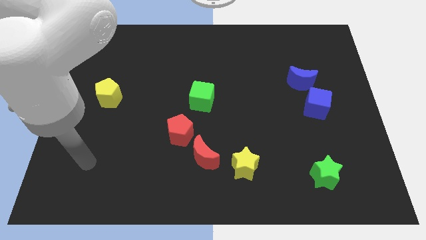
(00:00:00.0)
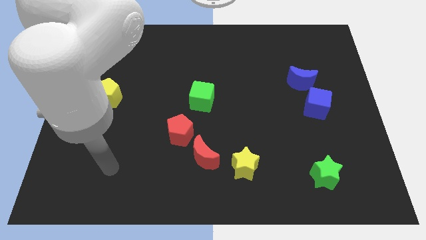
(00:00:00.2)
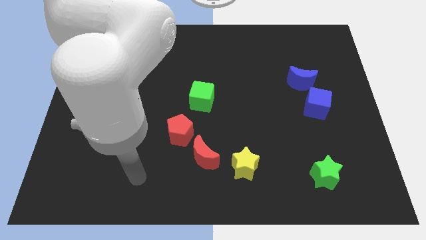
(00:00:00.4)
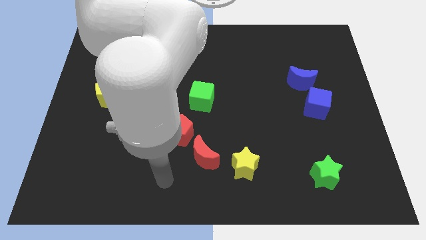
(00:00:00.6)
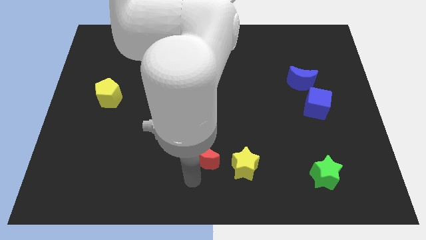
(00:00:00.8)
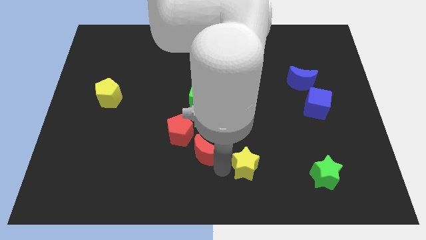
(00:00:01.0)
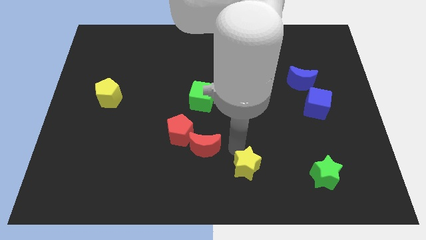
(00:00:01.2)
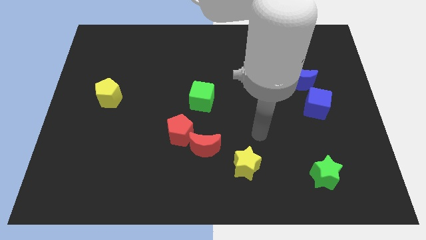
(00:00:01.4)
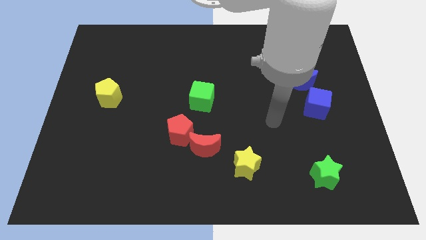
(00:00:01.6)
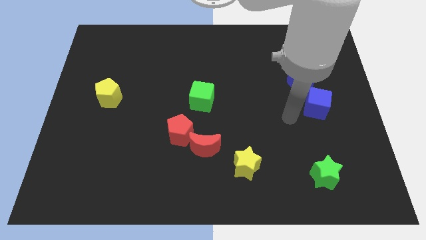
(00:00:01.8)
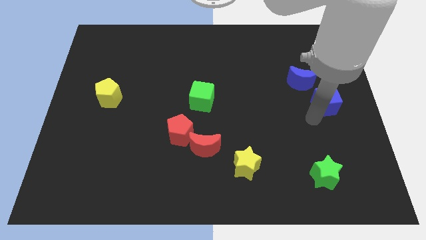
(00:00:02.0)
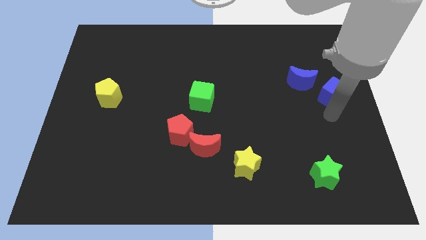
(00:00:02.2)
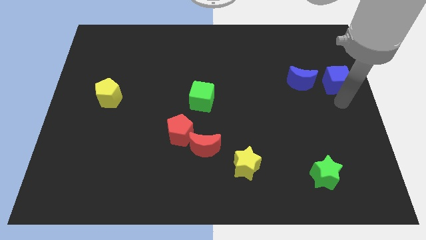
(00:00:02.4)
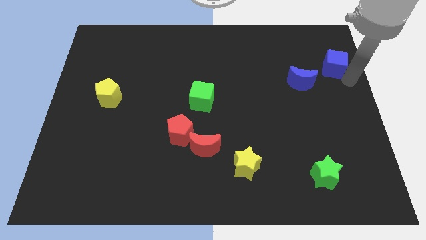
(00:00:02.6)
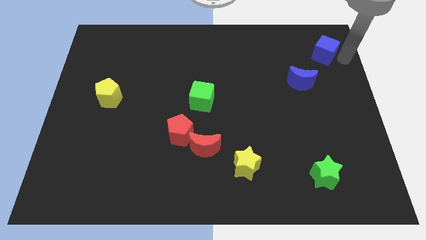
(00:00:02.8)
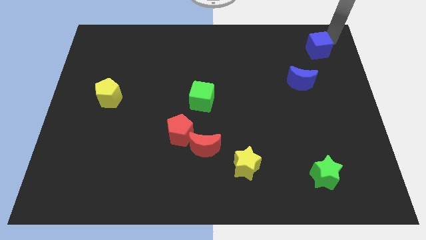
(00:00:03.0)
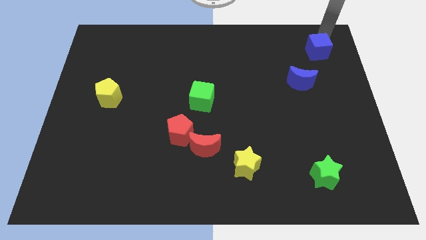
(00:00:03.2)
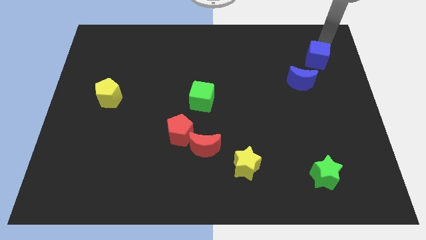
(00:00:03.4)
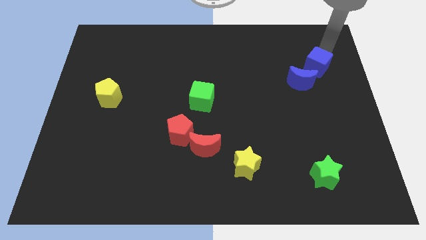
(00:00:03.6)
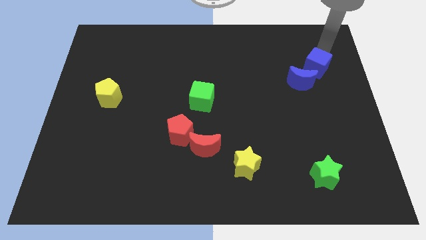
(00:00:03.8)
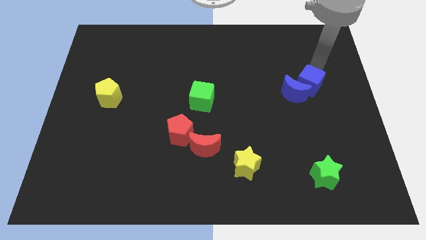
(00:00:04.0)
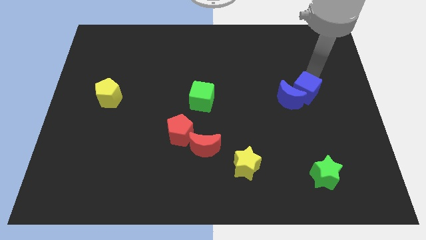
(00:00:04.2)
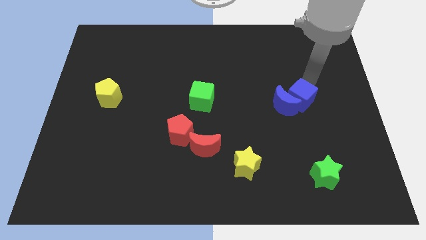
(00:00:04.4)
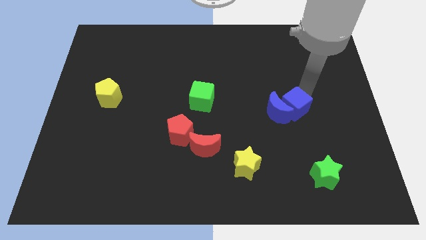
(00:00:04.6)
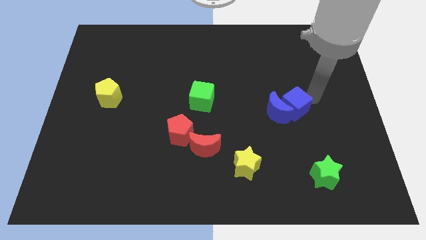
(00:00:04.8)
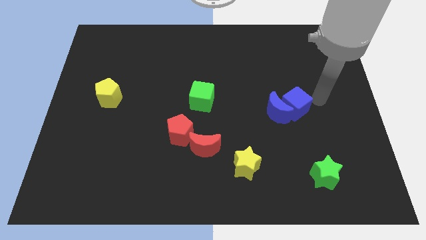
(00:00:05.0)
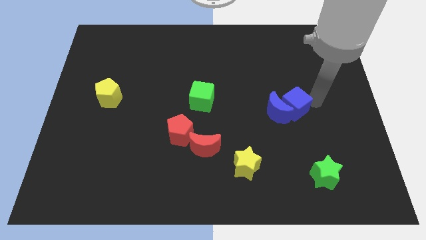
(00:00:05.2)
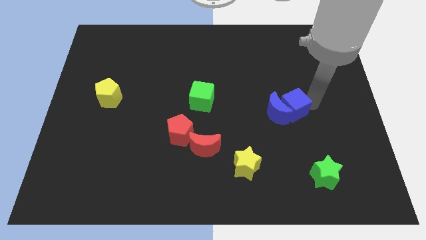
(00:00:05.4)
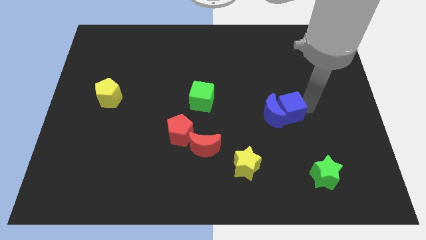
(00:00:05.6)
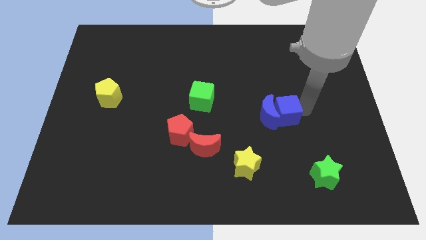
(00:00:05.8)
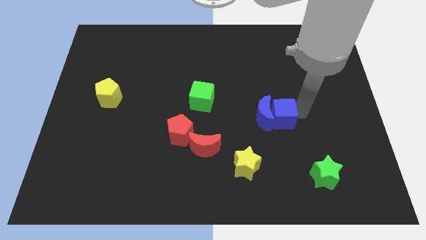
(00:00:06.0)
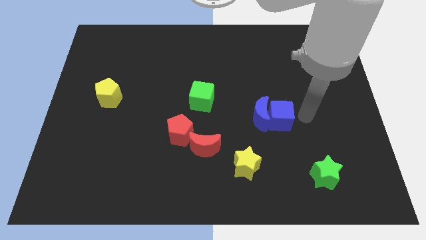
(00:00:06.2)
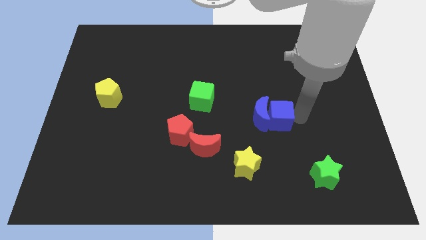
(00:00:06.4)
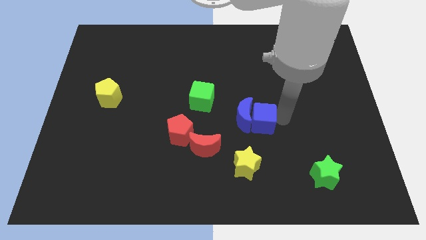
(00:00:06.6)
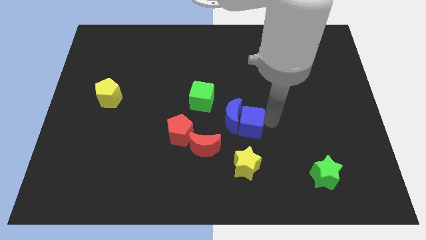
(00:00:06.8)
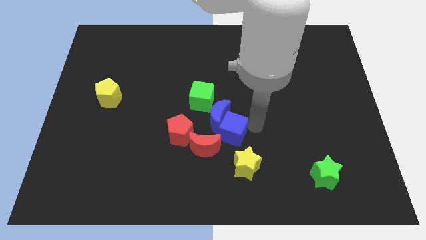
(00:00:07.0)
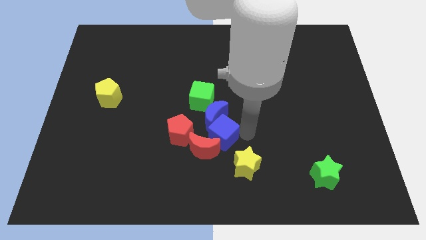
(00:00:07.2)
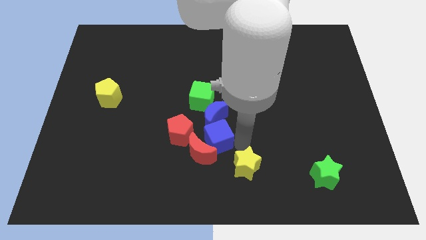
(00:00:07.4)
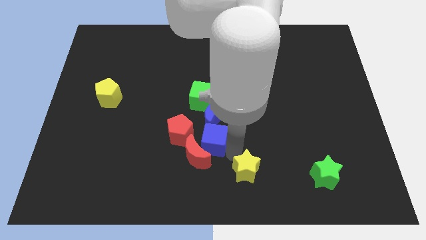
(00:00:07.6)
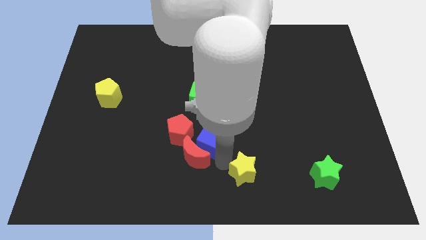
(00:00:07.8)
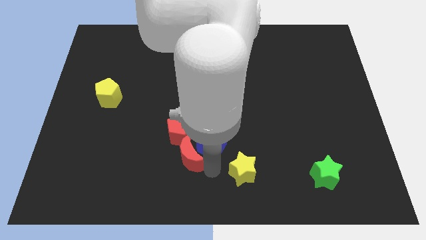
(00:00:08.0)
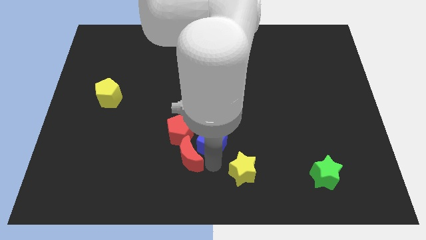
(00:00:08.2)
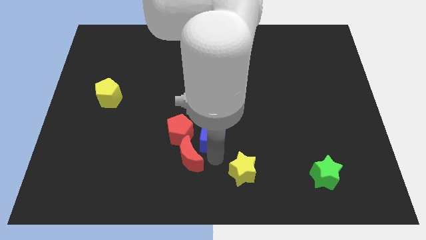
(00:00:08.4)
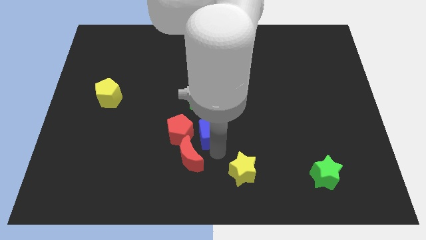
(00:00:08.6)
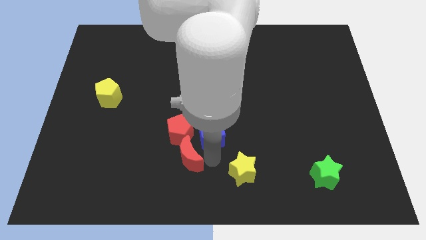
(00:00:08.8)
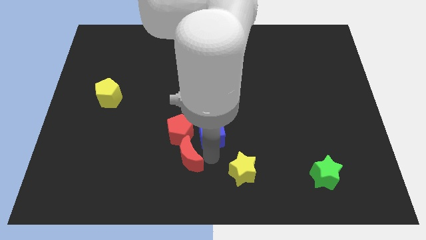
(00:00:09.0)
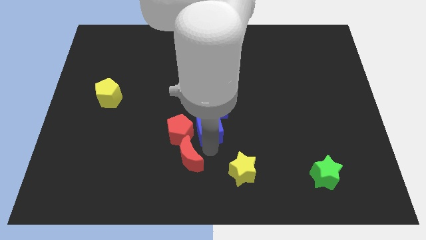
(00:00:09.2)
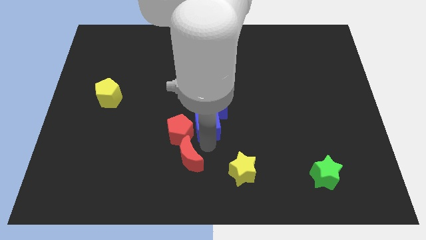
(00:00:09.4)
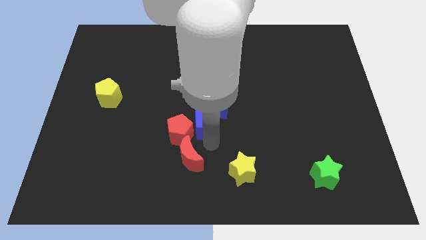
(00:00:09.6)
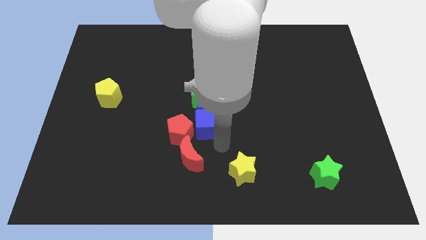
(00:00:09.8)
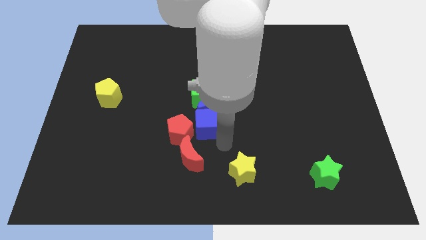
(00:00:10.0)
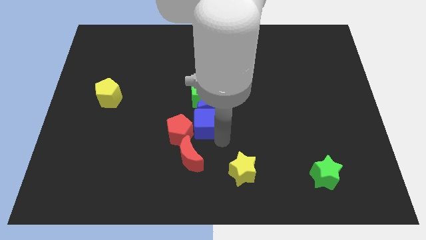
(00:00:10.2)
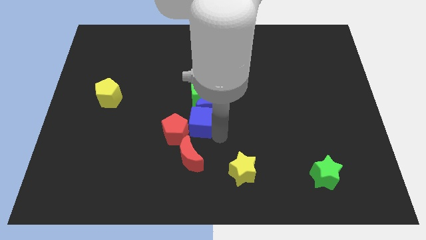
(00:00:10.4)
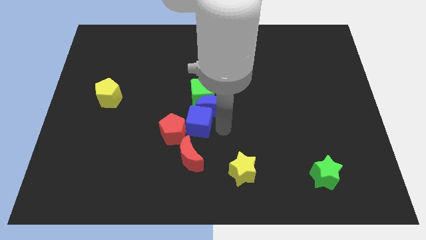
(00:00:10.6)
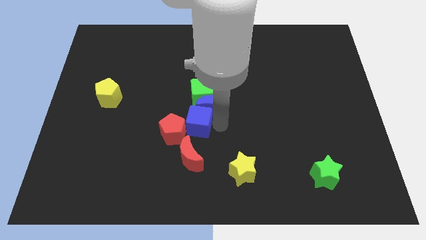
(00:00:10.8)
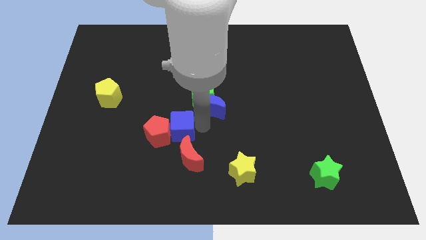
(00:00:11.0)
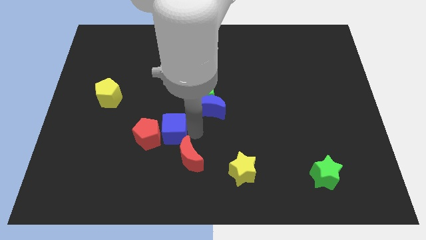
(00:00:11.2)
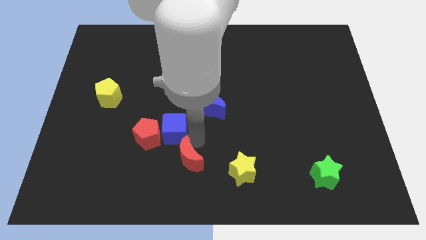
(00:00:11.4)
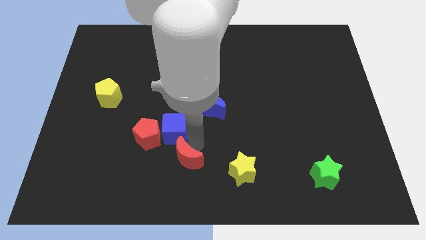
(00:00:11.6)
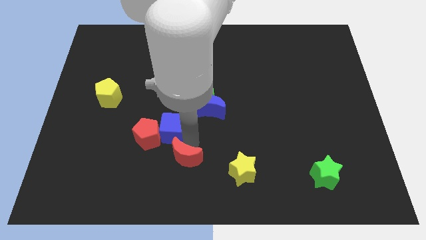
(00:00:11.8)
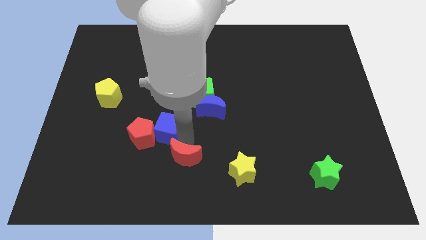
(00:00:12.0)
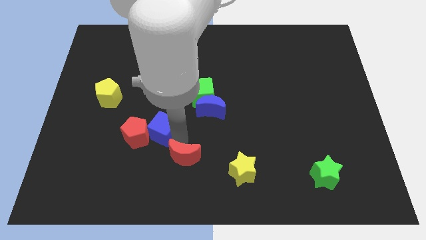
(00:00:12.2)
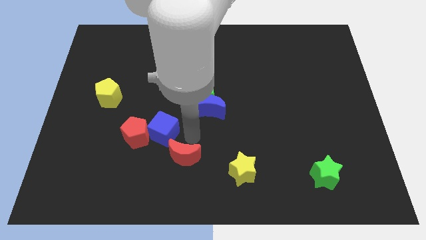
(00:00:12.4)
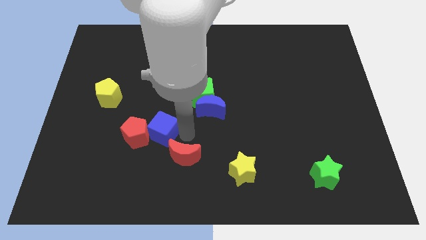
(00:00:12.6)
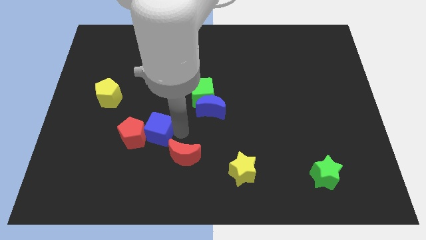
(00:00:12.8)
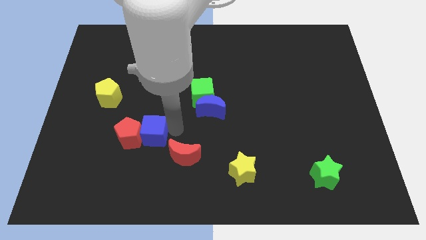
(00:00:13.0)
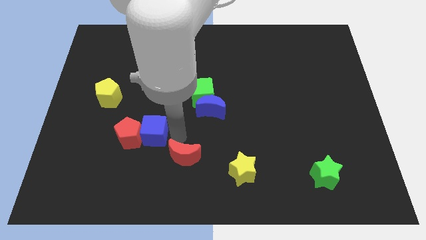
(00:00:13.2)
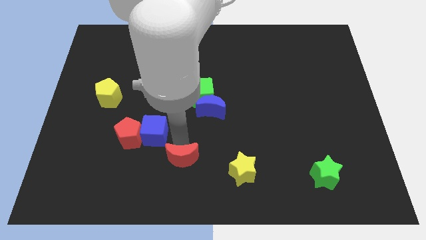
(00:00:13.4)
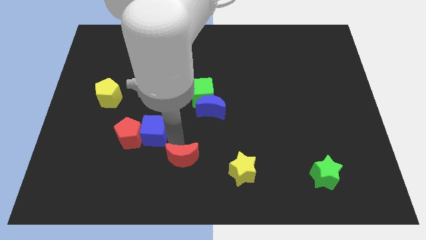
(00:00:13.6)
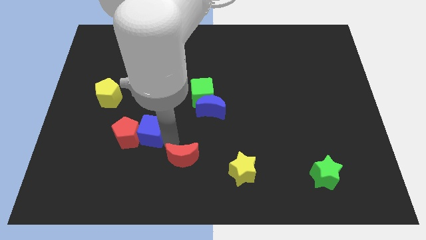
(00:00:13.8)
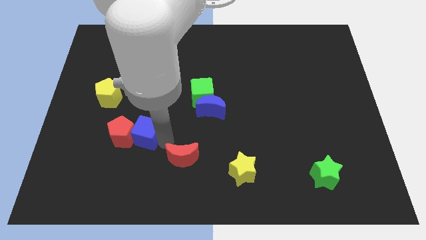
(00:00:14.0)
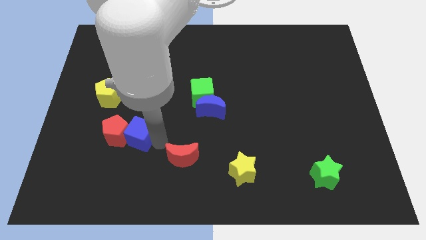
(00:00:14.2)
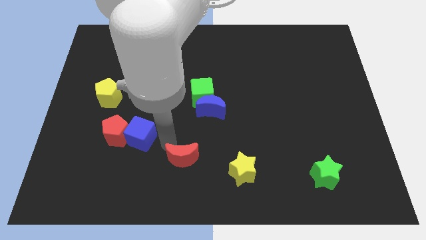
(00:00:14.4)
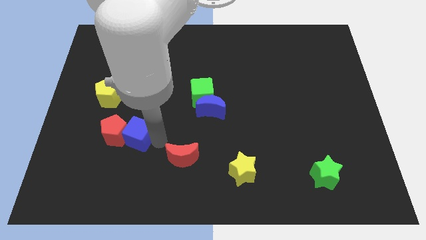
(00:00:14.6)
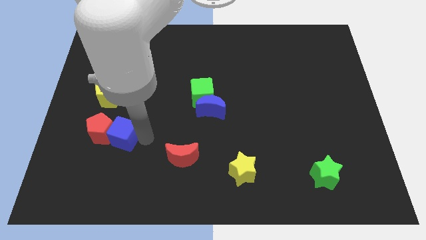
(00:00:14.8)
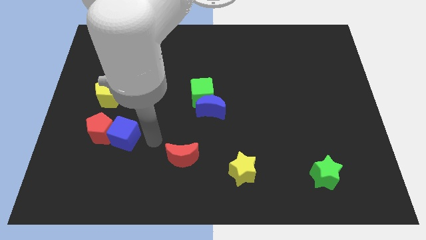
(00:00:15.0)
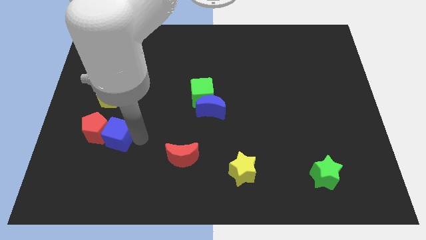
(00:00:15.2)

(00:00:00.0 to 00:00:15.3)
move the blue cube to the bottom of the yellow pentagon
